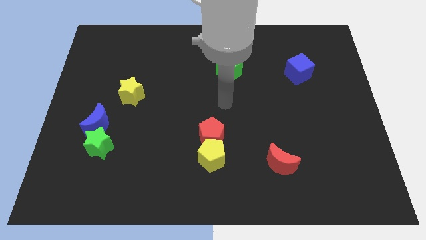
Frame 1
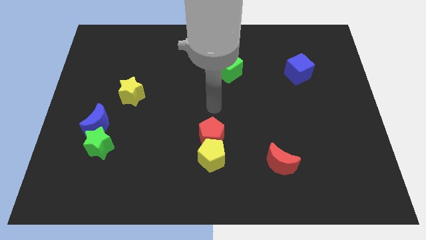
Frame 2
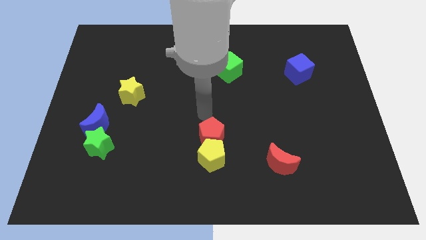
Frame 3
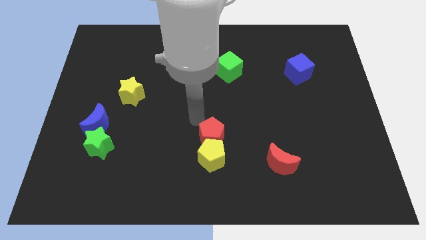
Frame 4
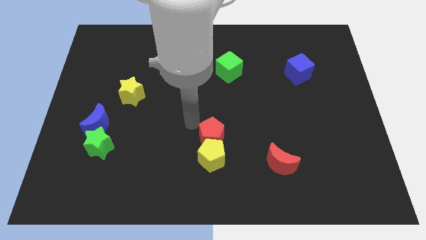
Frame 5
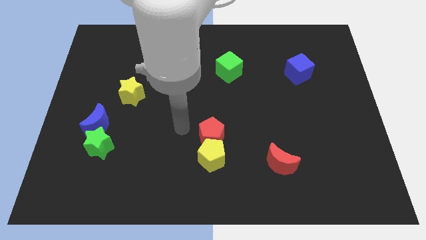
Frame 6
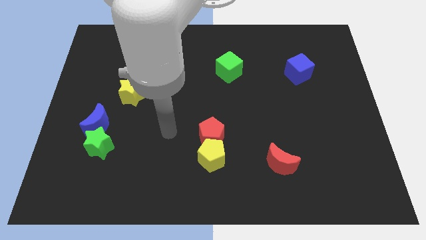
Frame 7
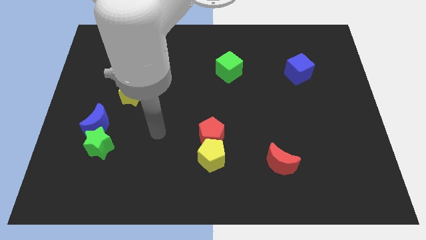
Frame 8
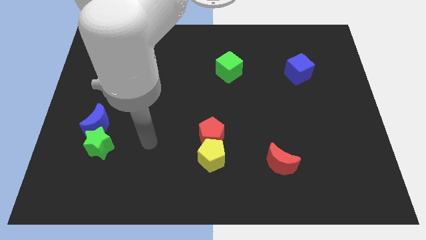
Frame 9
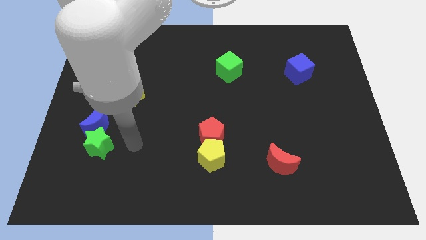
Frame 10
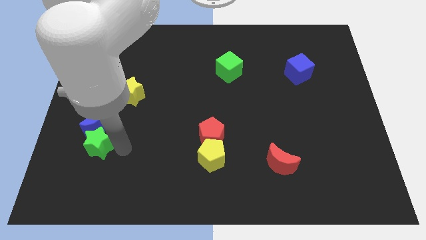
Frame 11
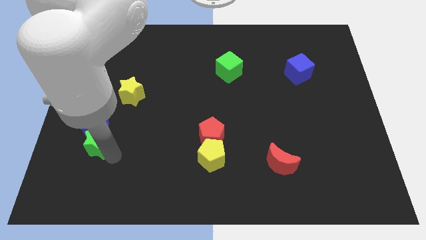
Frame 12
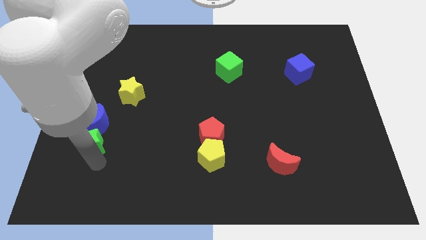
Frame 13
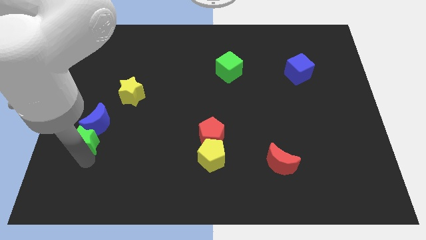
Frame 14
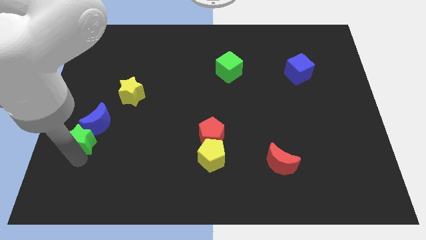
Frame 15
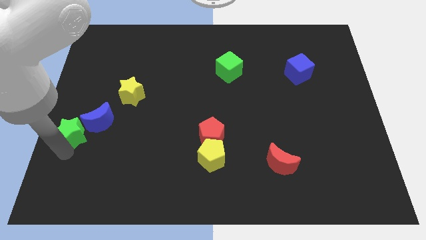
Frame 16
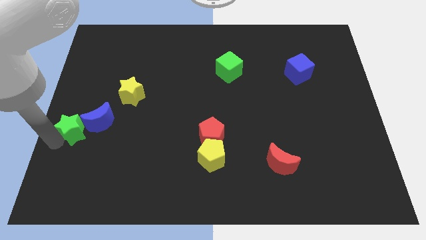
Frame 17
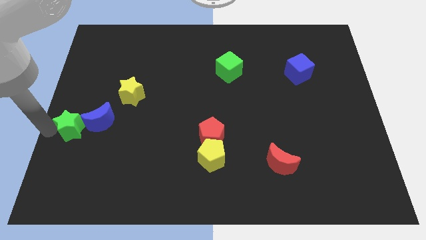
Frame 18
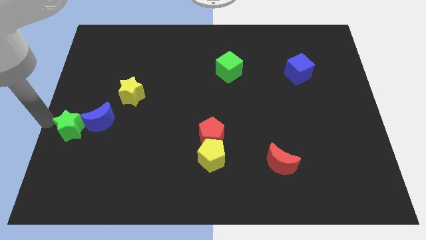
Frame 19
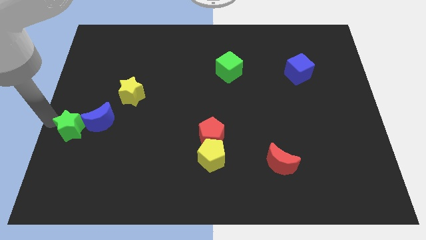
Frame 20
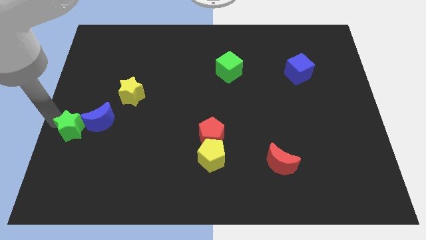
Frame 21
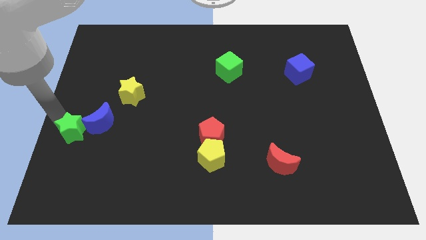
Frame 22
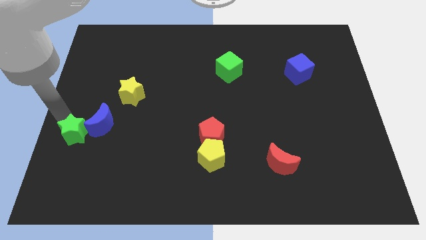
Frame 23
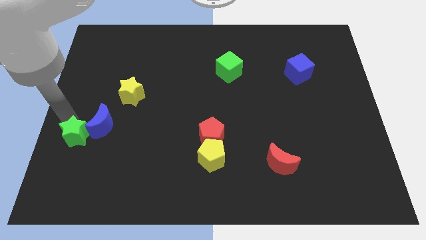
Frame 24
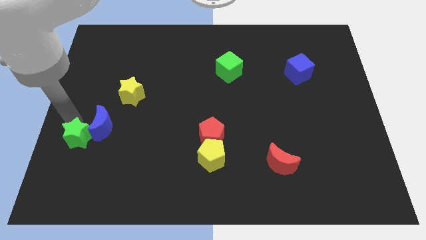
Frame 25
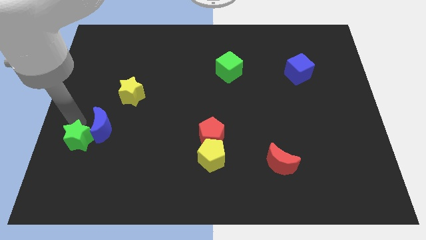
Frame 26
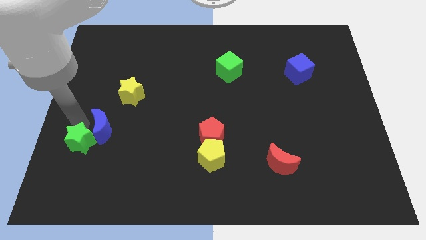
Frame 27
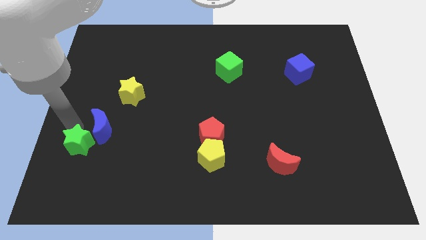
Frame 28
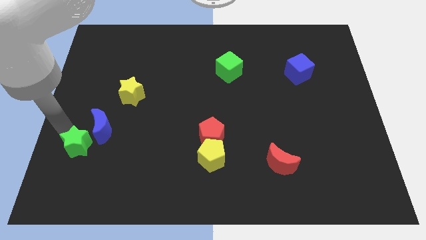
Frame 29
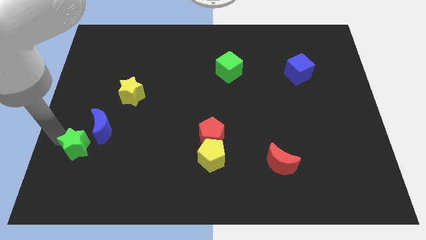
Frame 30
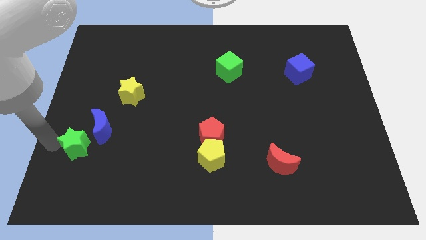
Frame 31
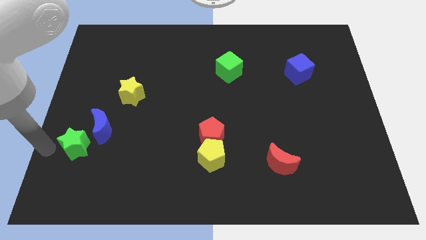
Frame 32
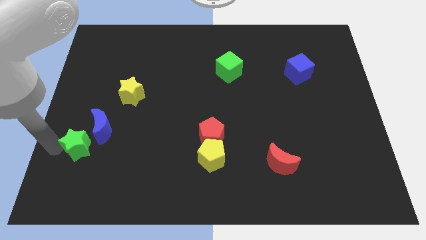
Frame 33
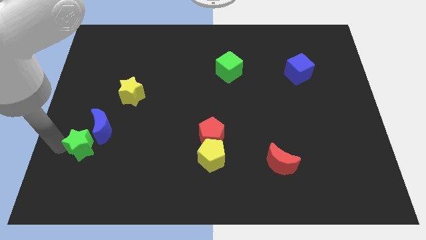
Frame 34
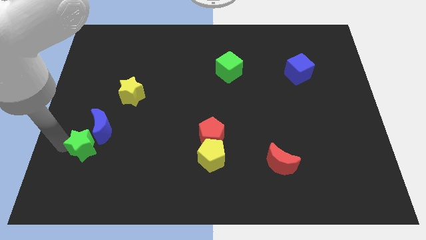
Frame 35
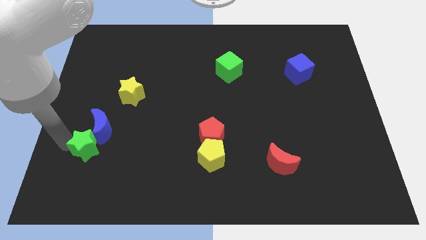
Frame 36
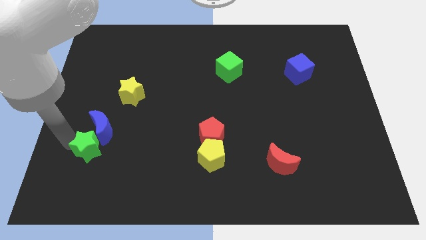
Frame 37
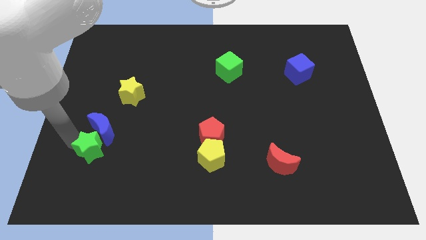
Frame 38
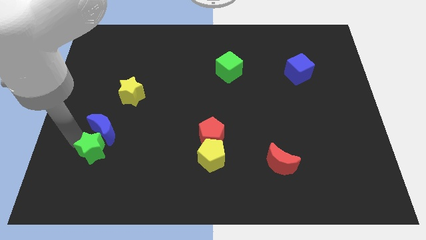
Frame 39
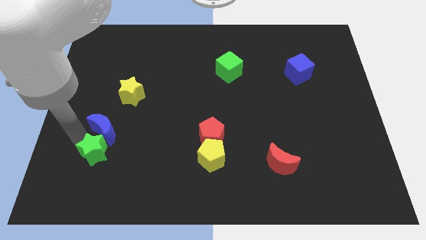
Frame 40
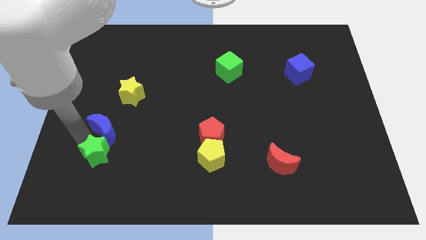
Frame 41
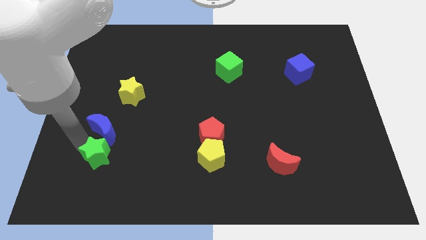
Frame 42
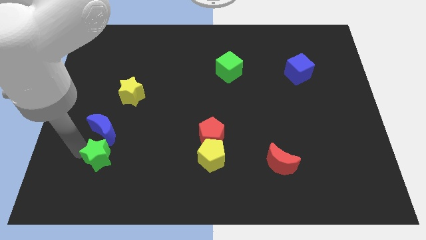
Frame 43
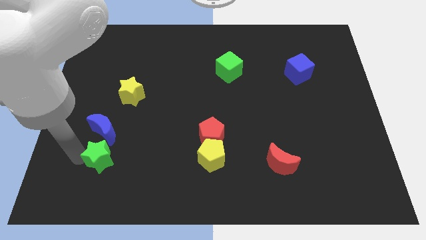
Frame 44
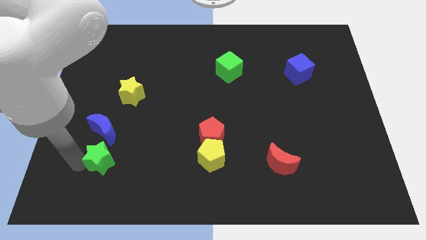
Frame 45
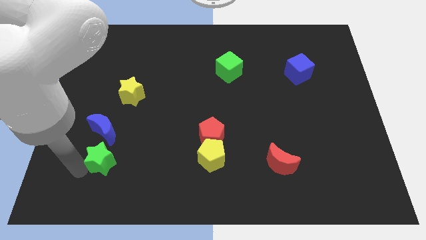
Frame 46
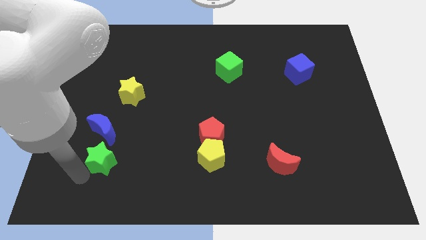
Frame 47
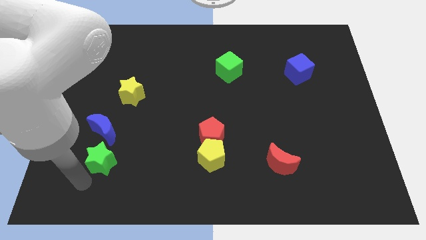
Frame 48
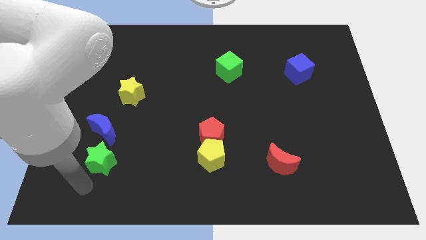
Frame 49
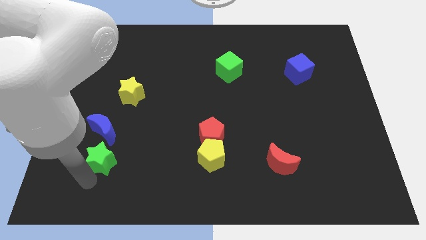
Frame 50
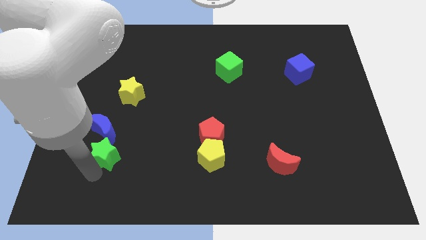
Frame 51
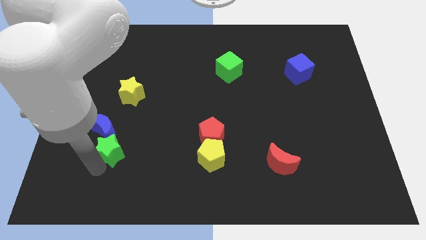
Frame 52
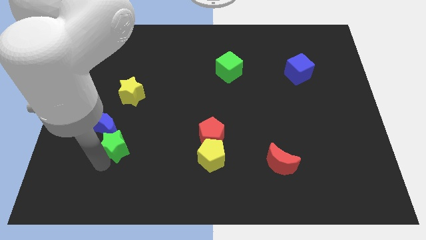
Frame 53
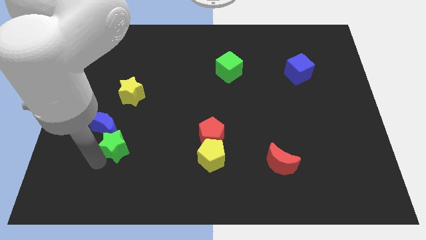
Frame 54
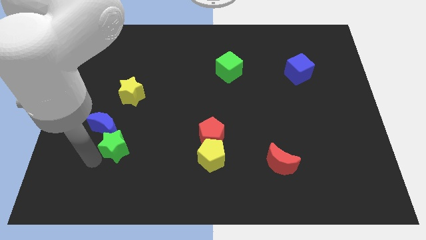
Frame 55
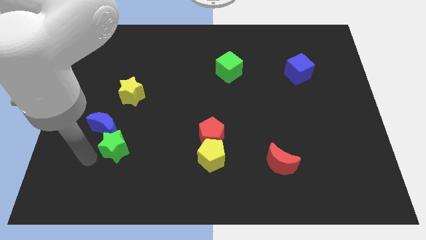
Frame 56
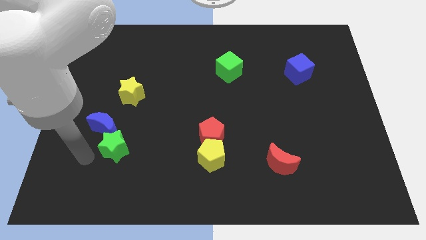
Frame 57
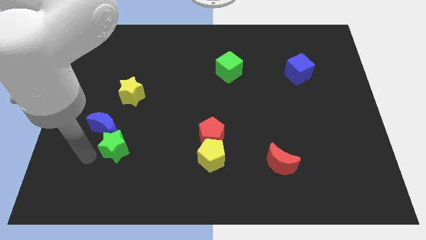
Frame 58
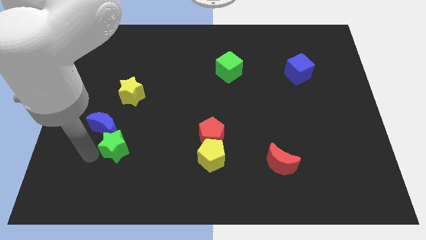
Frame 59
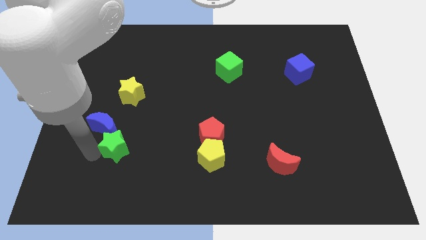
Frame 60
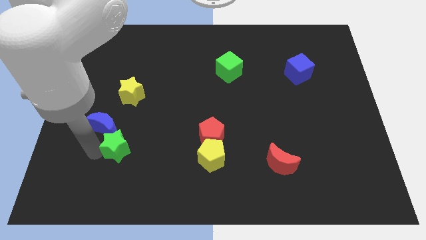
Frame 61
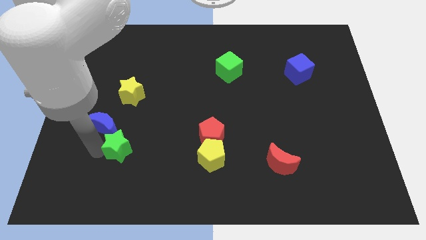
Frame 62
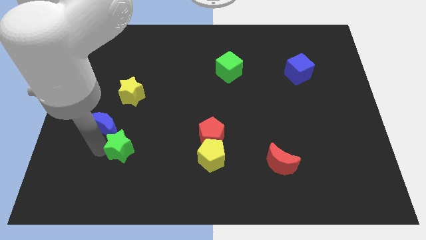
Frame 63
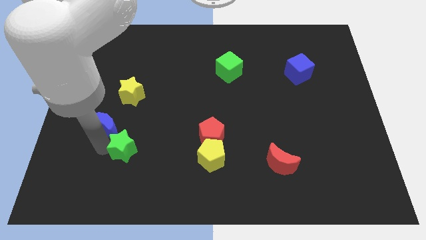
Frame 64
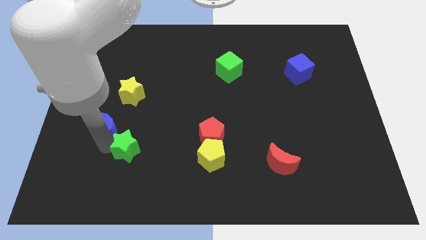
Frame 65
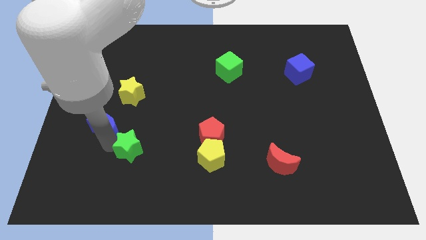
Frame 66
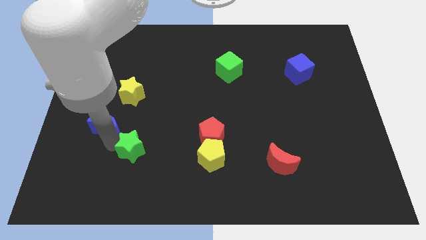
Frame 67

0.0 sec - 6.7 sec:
slightly move the green star right

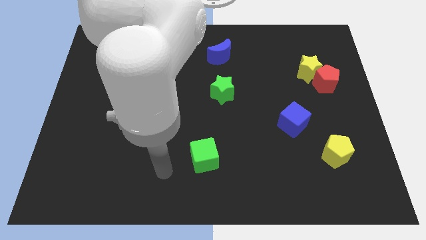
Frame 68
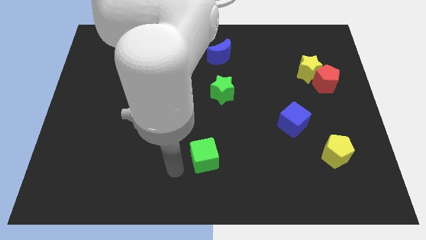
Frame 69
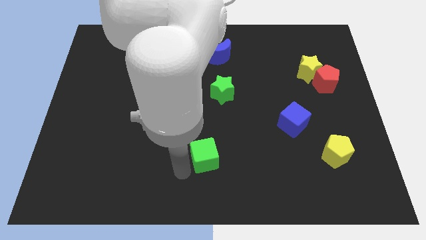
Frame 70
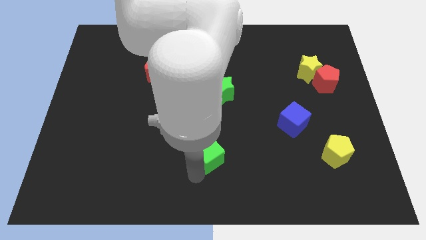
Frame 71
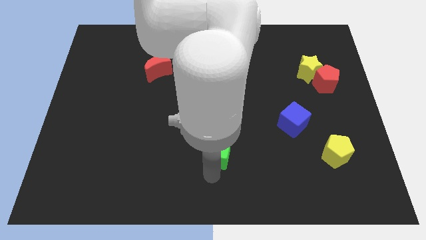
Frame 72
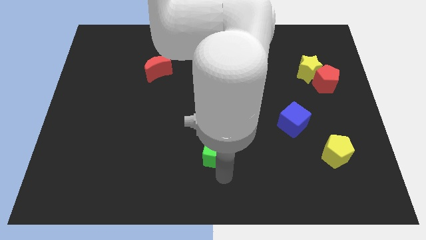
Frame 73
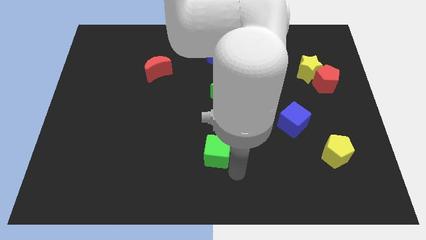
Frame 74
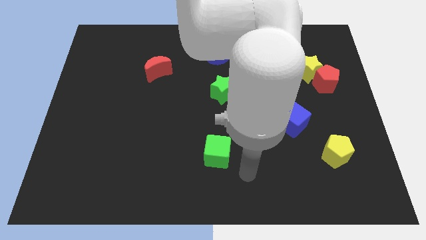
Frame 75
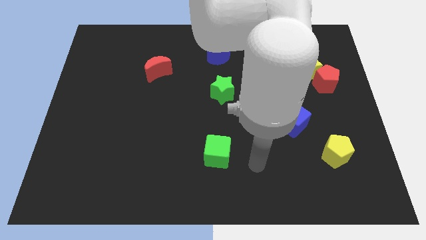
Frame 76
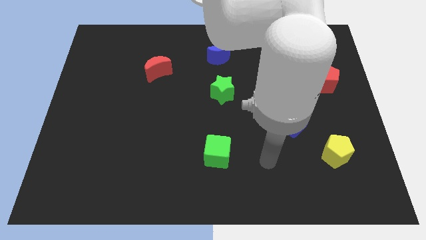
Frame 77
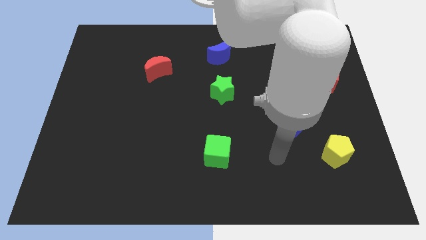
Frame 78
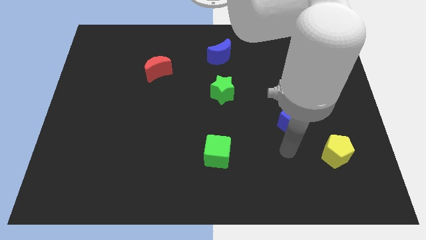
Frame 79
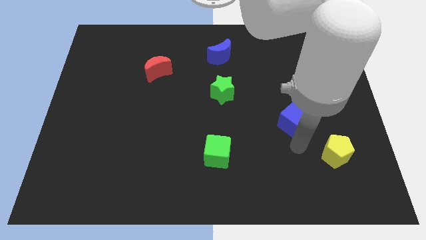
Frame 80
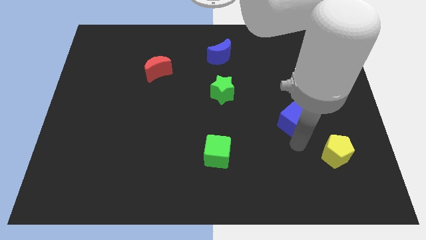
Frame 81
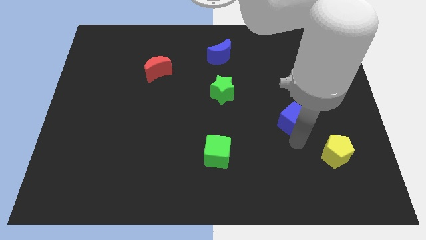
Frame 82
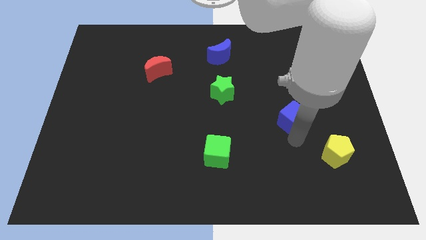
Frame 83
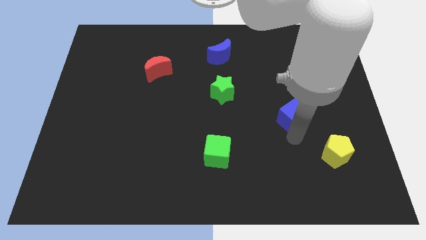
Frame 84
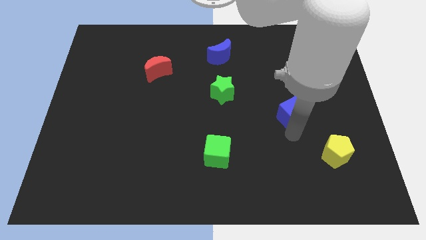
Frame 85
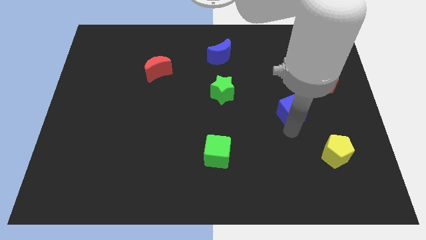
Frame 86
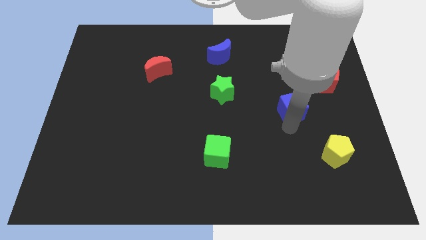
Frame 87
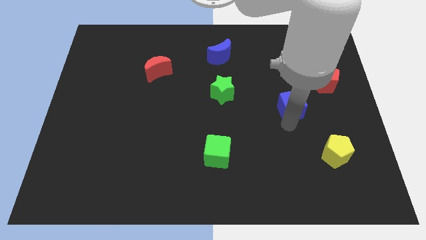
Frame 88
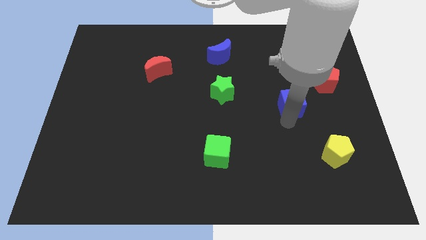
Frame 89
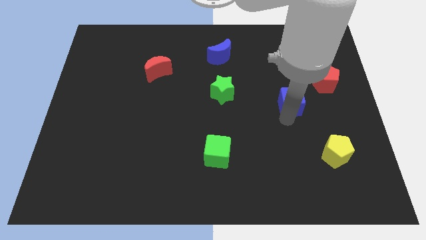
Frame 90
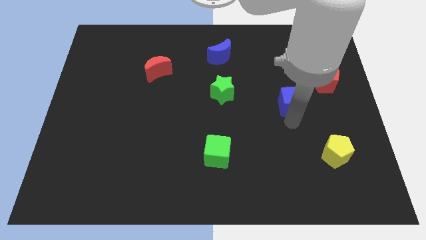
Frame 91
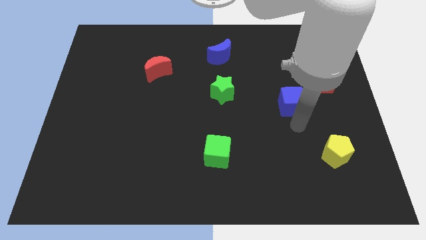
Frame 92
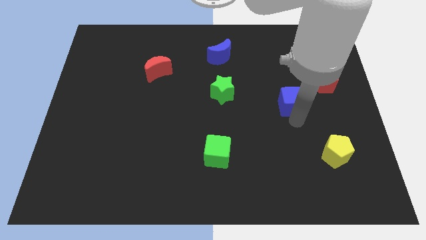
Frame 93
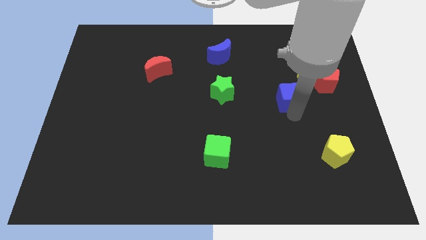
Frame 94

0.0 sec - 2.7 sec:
slightly move the blue cube upwards
